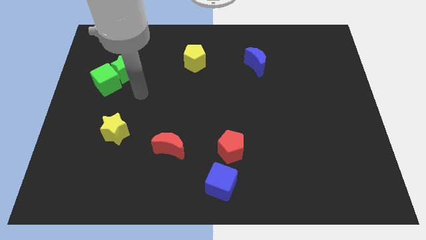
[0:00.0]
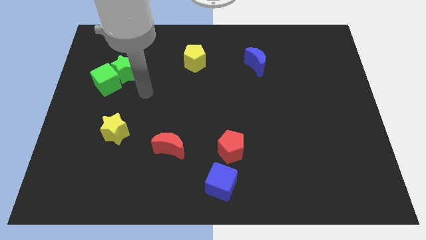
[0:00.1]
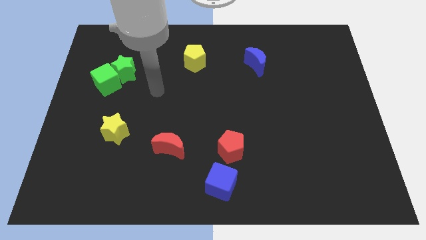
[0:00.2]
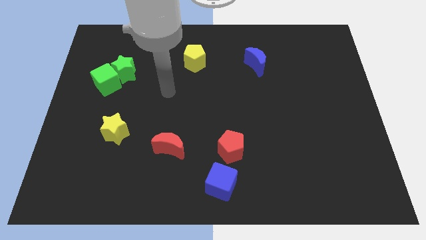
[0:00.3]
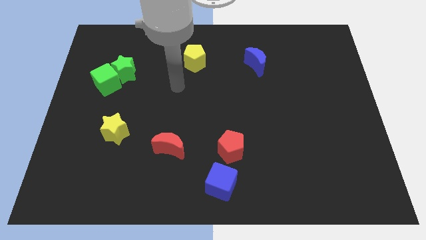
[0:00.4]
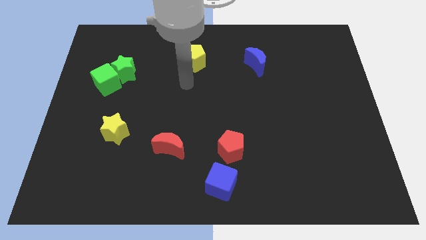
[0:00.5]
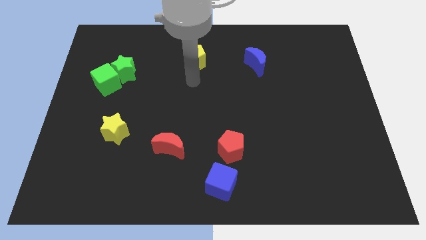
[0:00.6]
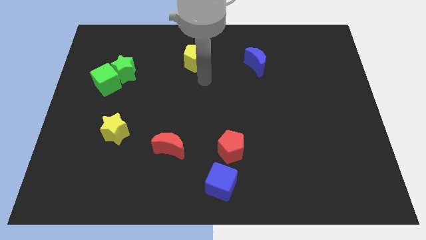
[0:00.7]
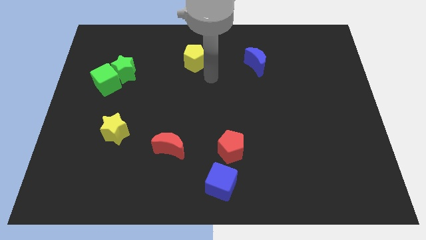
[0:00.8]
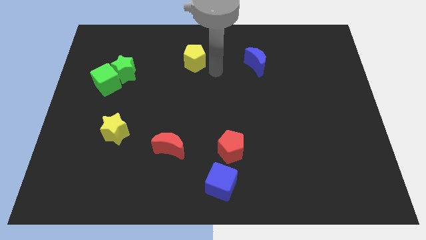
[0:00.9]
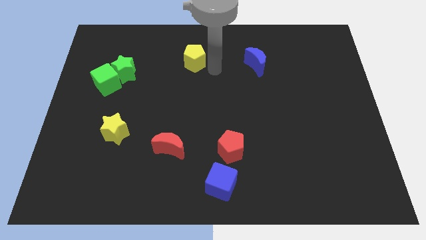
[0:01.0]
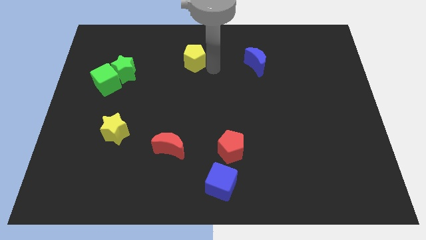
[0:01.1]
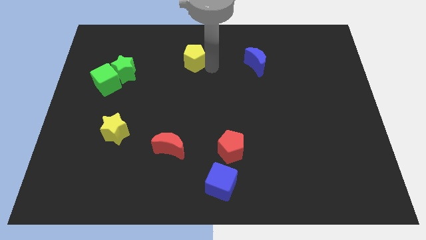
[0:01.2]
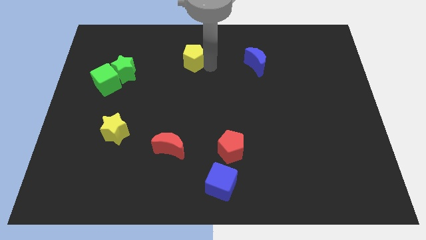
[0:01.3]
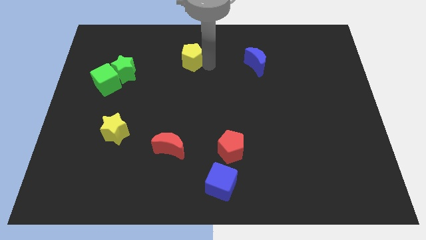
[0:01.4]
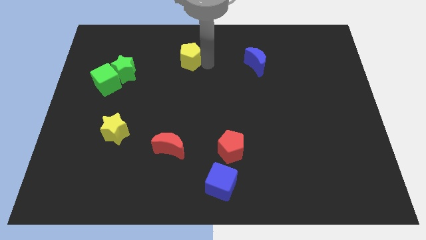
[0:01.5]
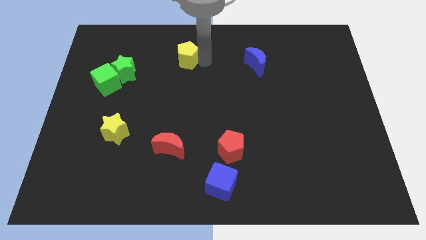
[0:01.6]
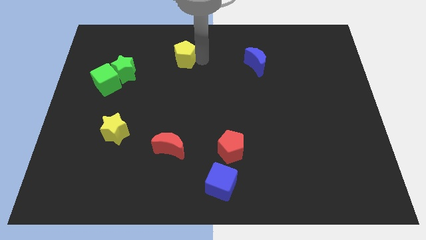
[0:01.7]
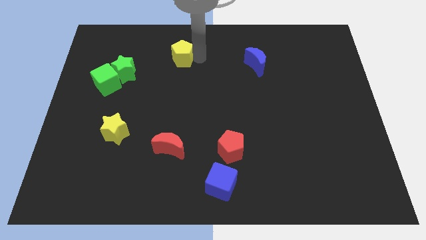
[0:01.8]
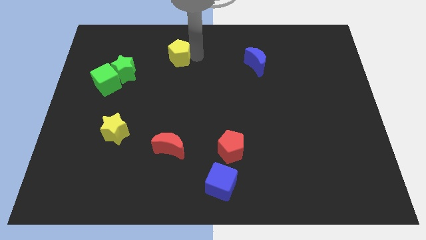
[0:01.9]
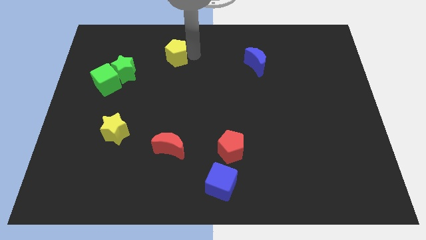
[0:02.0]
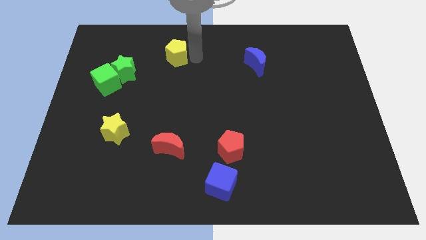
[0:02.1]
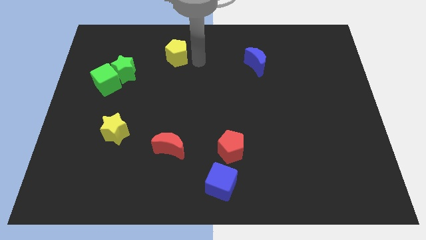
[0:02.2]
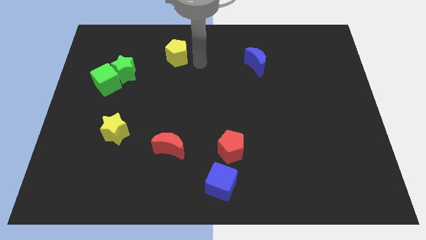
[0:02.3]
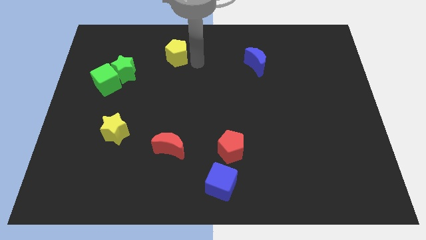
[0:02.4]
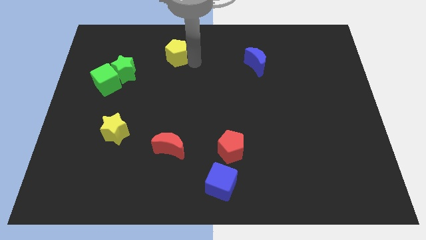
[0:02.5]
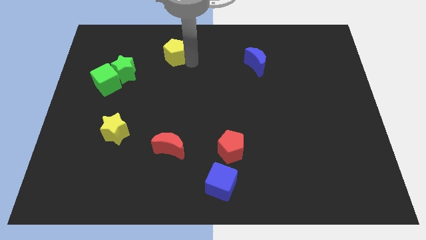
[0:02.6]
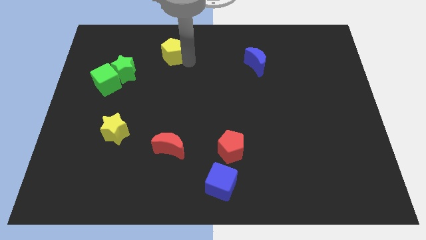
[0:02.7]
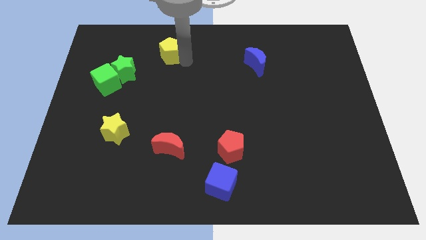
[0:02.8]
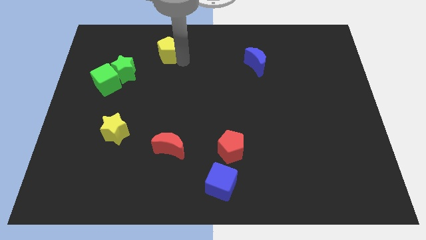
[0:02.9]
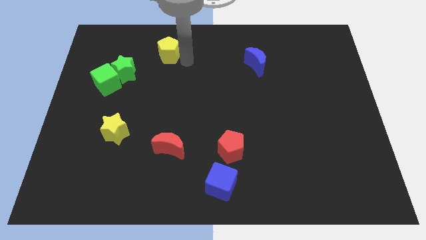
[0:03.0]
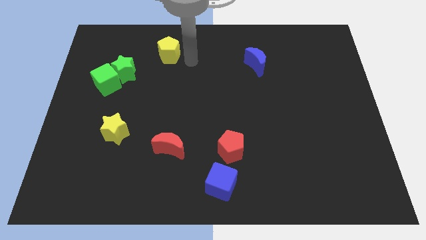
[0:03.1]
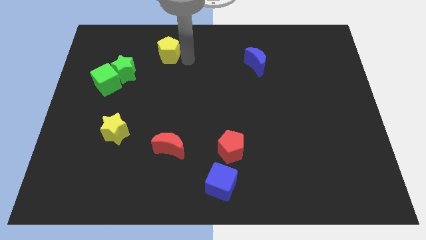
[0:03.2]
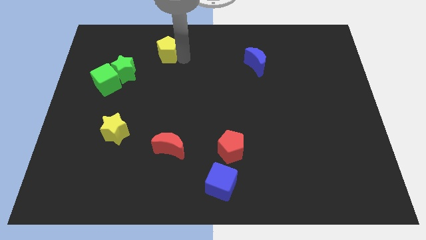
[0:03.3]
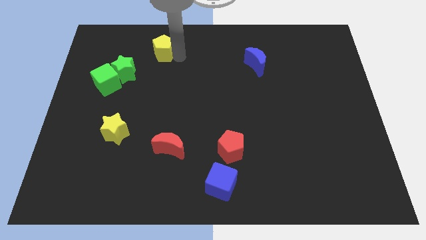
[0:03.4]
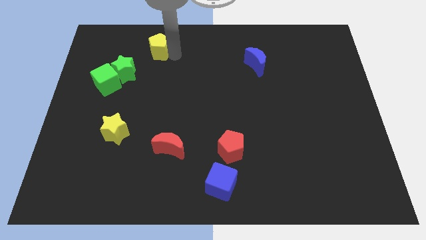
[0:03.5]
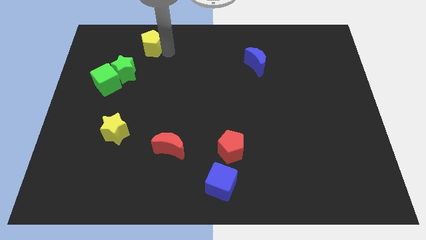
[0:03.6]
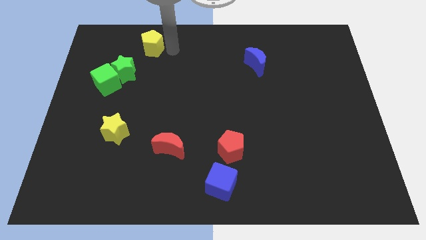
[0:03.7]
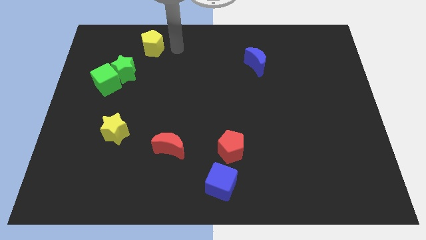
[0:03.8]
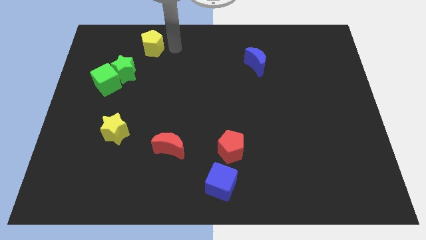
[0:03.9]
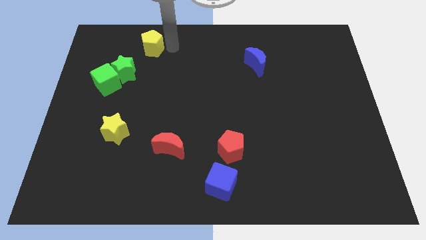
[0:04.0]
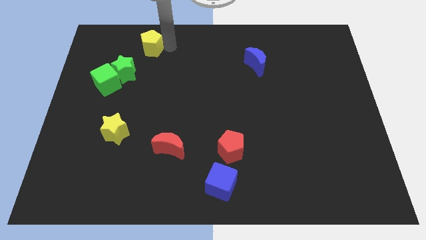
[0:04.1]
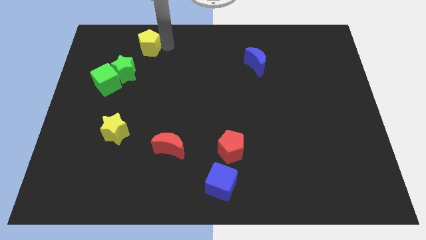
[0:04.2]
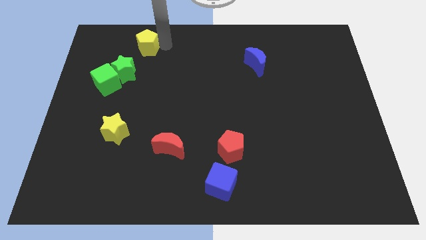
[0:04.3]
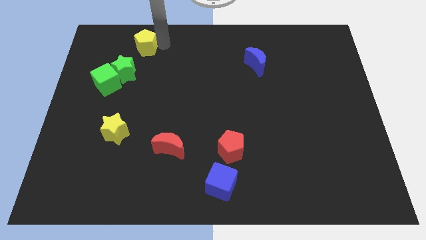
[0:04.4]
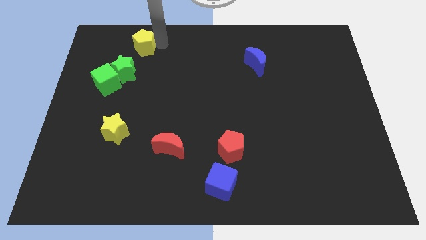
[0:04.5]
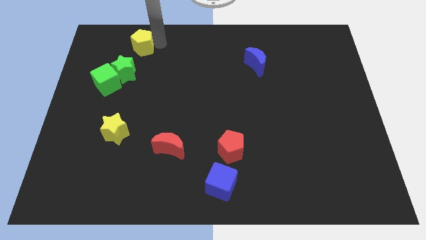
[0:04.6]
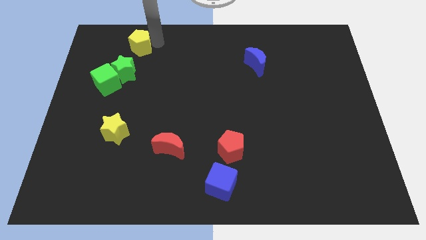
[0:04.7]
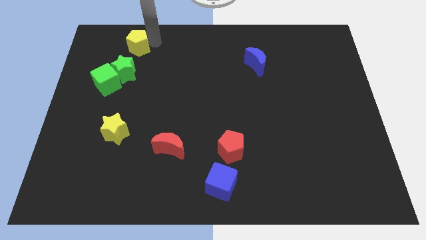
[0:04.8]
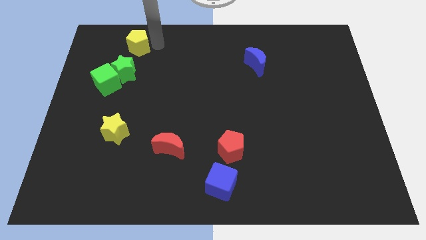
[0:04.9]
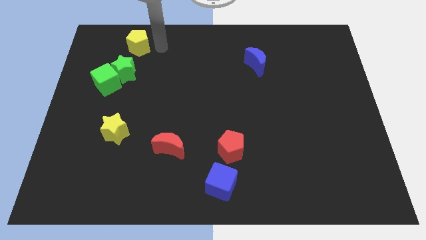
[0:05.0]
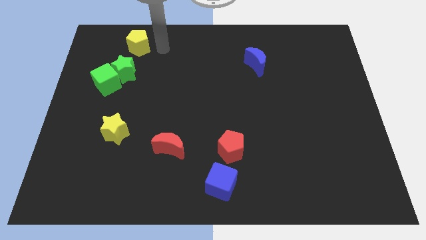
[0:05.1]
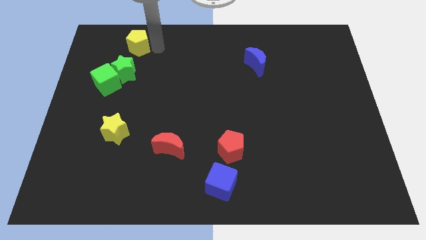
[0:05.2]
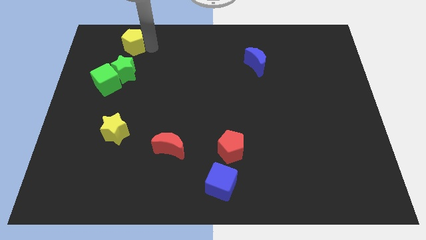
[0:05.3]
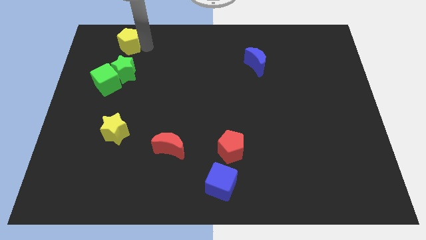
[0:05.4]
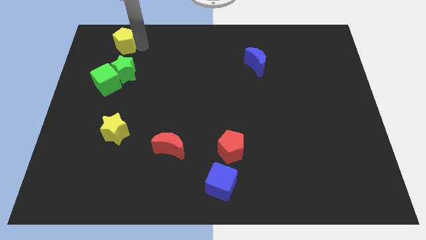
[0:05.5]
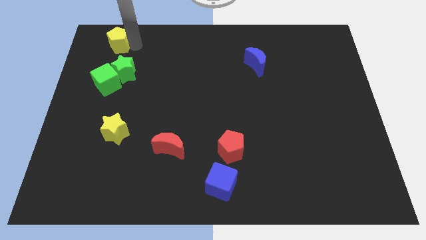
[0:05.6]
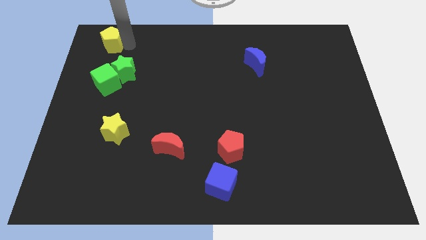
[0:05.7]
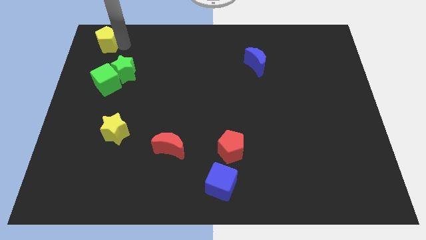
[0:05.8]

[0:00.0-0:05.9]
put the yellow pentagon to the top left corner
